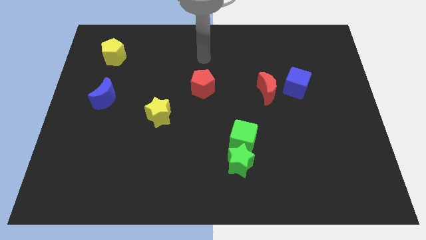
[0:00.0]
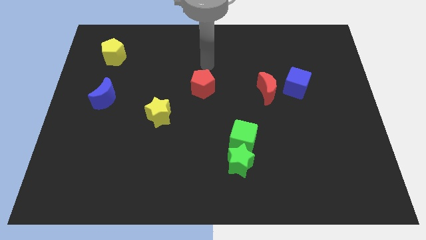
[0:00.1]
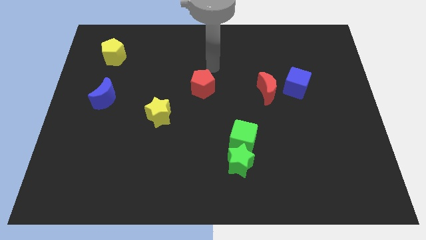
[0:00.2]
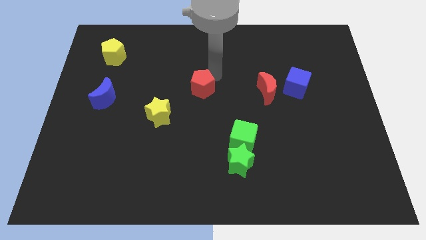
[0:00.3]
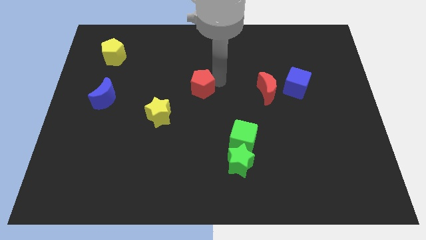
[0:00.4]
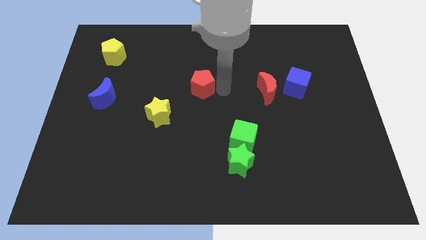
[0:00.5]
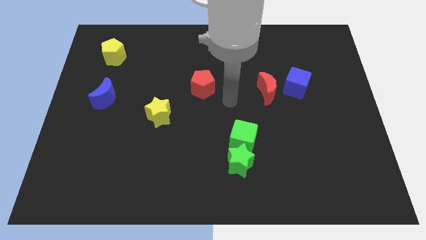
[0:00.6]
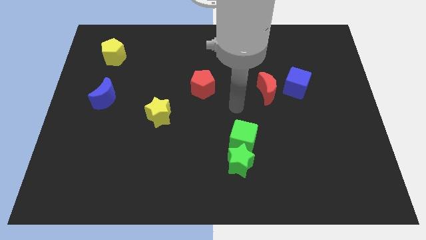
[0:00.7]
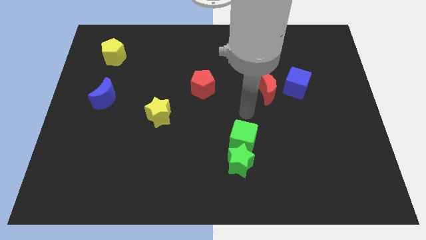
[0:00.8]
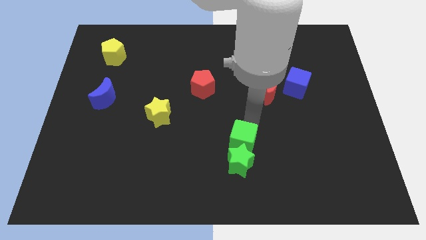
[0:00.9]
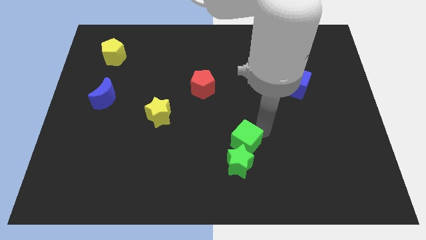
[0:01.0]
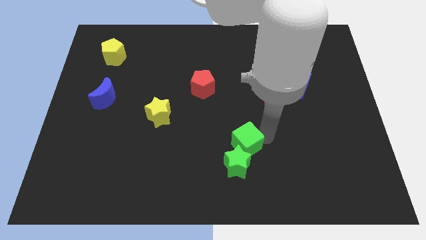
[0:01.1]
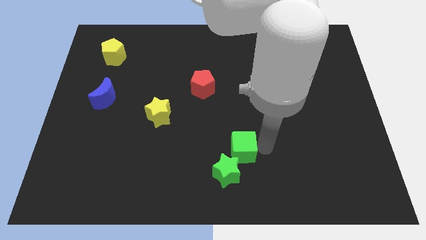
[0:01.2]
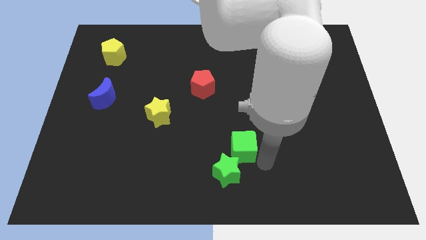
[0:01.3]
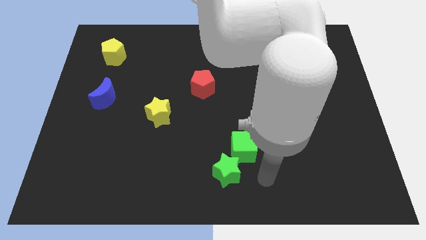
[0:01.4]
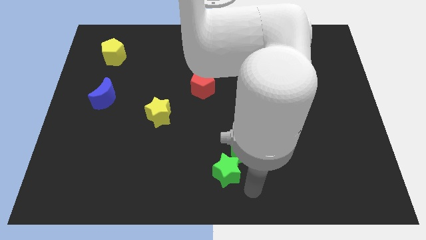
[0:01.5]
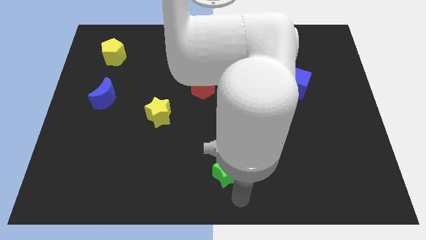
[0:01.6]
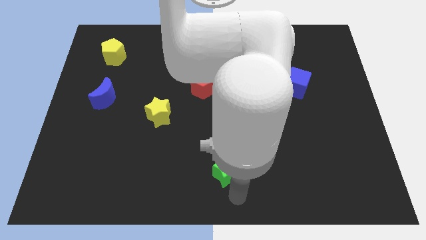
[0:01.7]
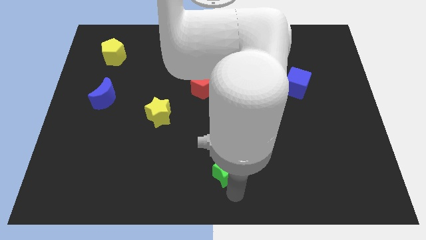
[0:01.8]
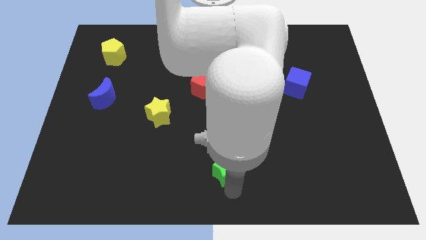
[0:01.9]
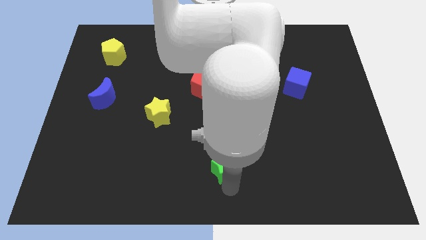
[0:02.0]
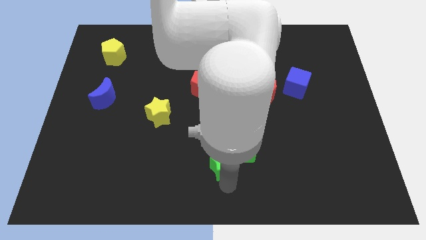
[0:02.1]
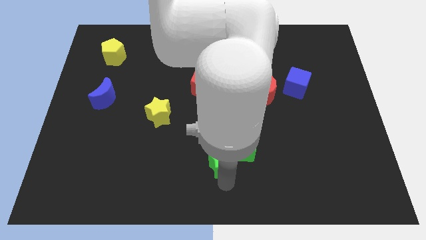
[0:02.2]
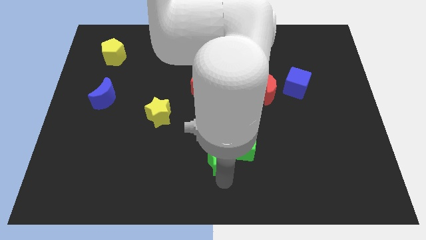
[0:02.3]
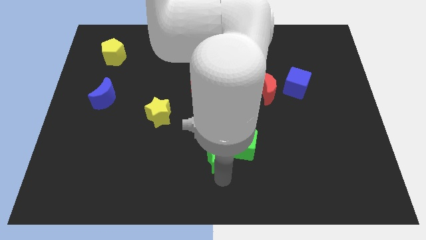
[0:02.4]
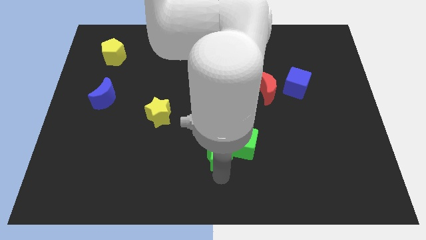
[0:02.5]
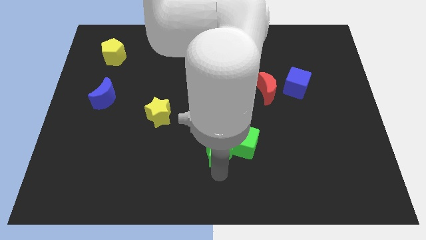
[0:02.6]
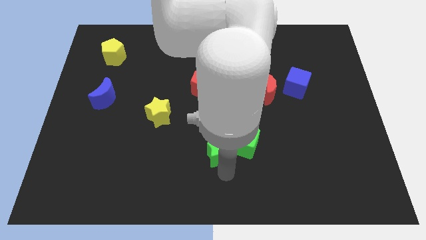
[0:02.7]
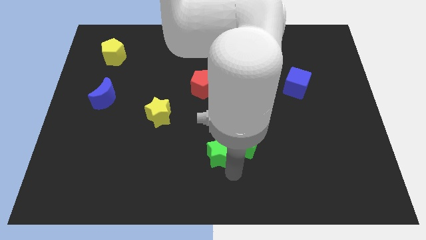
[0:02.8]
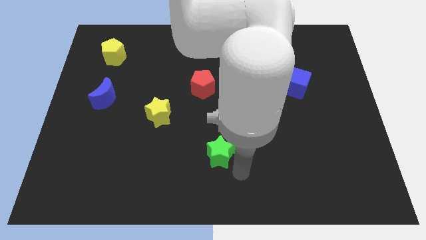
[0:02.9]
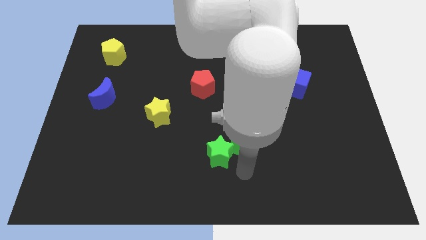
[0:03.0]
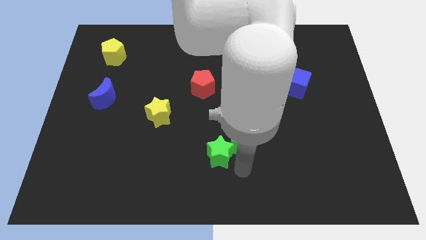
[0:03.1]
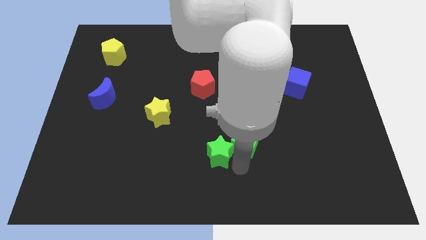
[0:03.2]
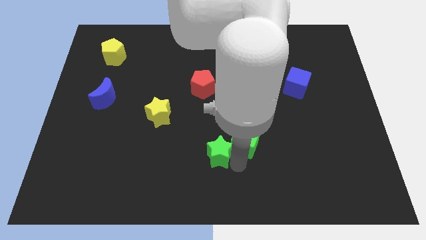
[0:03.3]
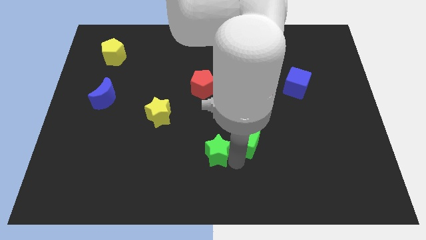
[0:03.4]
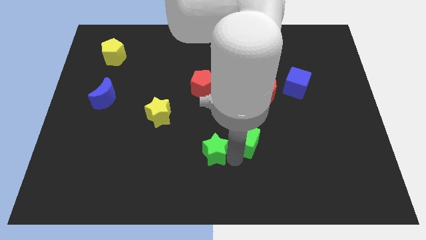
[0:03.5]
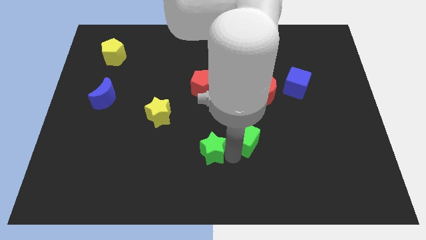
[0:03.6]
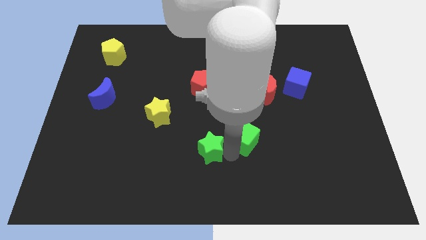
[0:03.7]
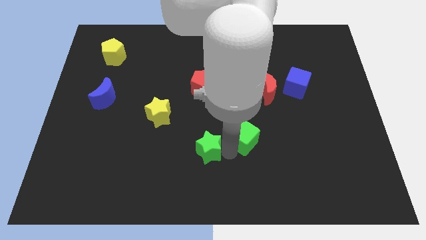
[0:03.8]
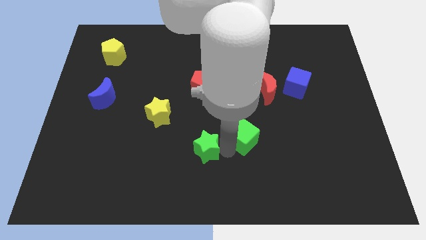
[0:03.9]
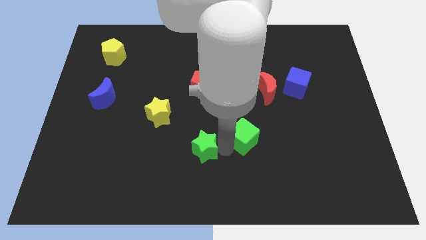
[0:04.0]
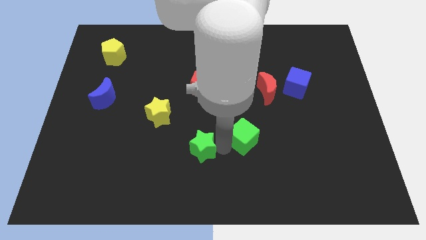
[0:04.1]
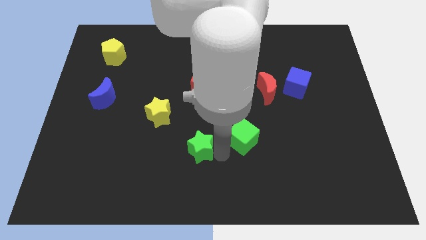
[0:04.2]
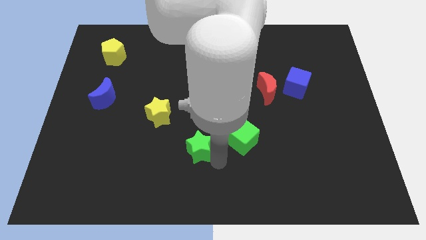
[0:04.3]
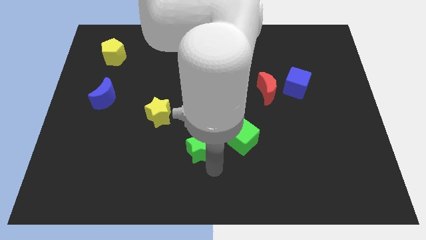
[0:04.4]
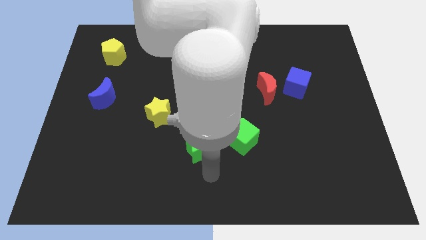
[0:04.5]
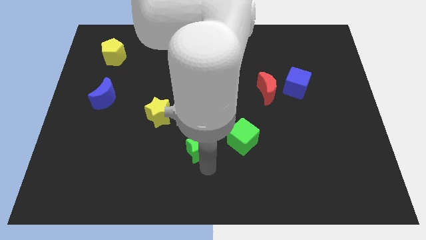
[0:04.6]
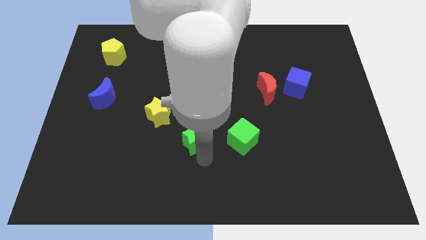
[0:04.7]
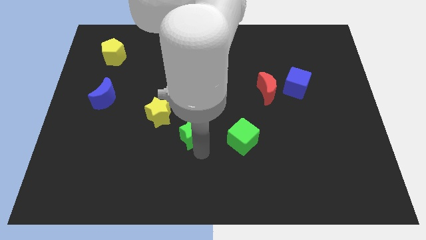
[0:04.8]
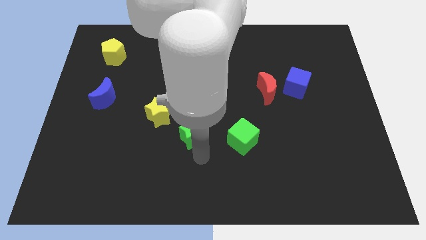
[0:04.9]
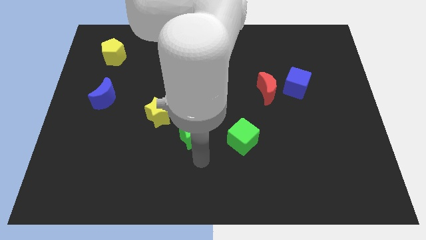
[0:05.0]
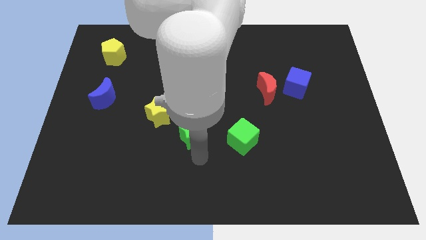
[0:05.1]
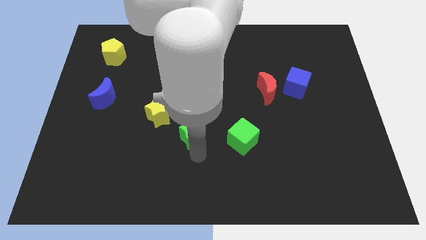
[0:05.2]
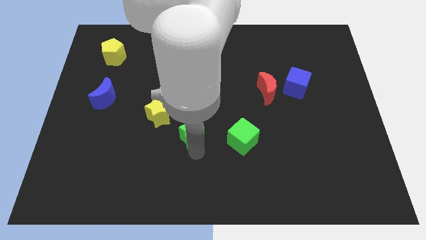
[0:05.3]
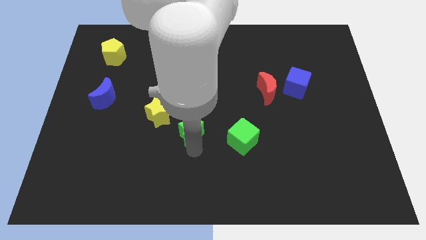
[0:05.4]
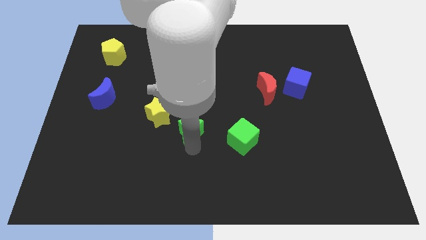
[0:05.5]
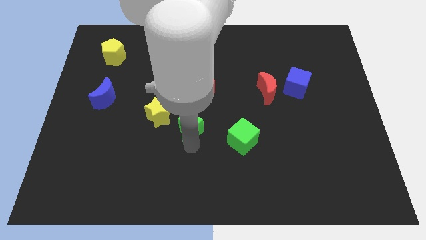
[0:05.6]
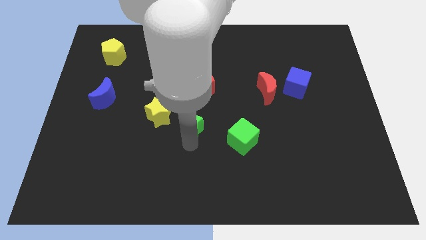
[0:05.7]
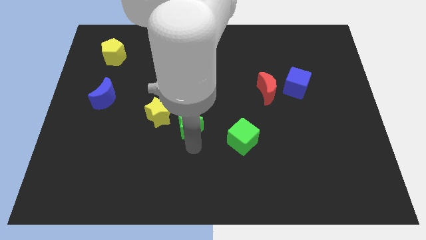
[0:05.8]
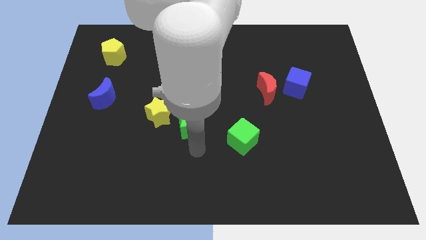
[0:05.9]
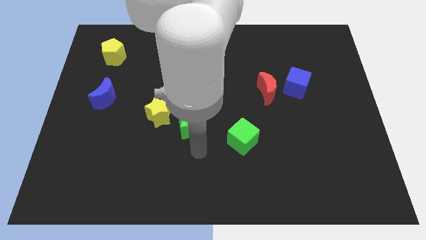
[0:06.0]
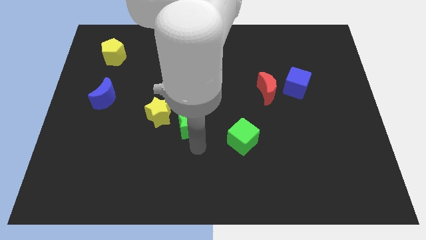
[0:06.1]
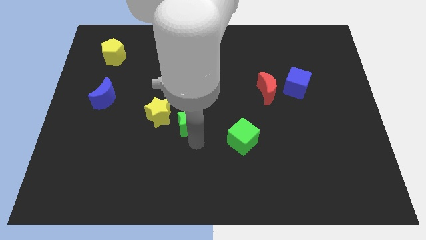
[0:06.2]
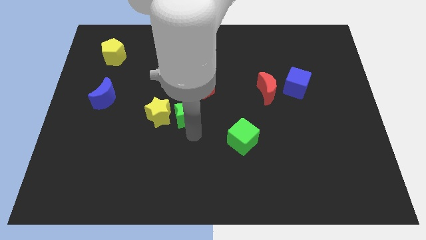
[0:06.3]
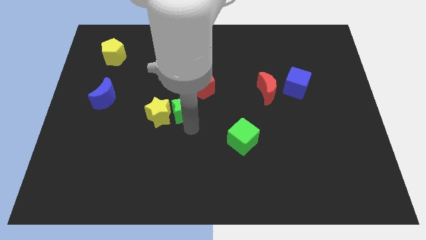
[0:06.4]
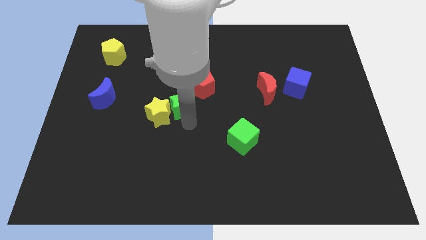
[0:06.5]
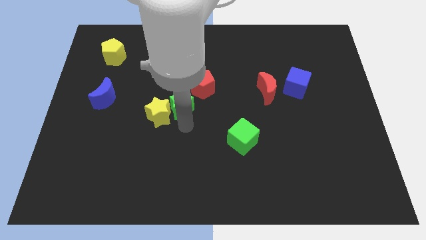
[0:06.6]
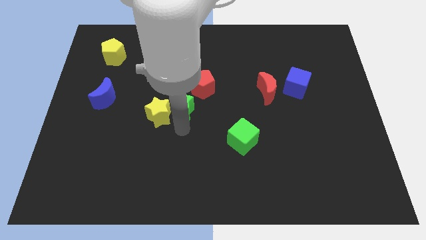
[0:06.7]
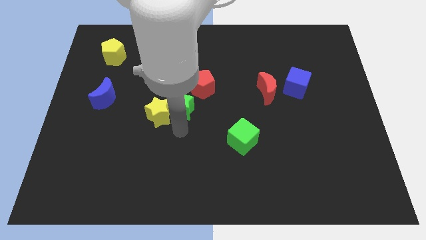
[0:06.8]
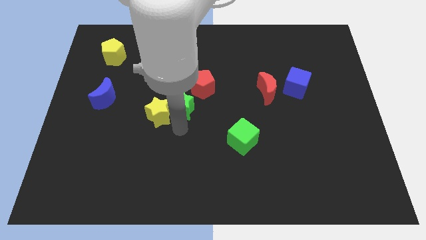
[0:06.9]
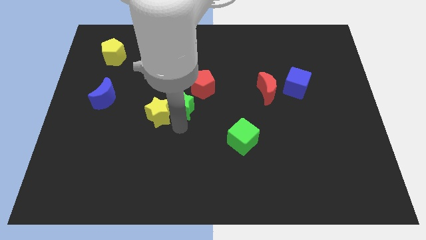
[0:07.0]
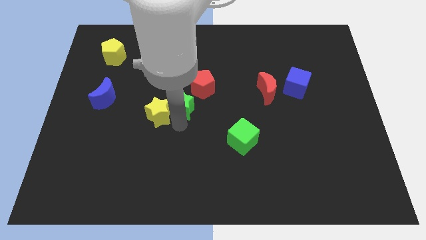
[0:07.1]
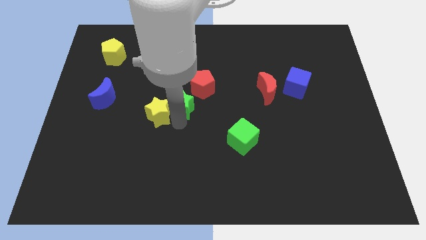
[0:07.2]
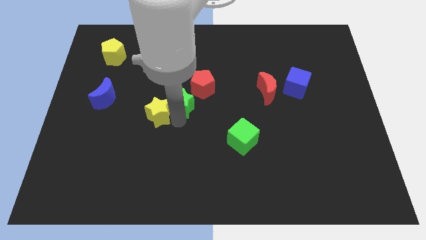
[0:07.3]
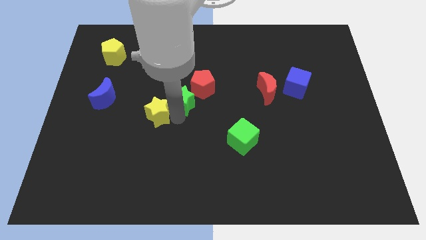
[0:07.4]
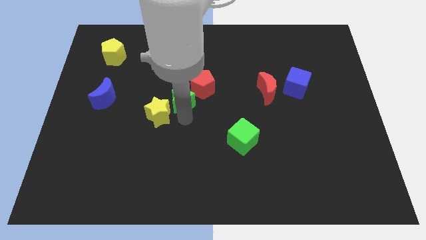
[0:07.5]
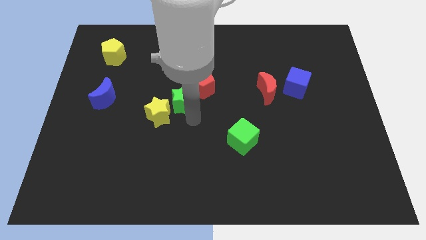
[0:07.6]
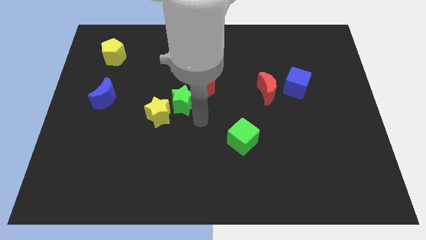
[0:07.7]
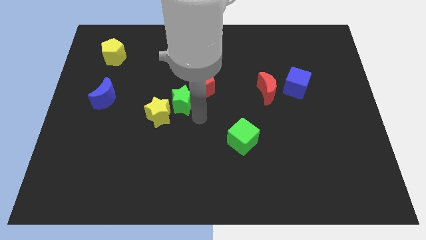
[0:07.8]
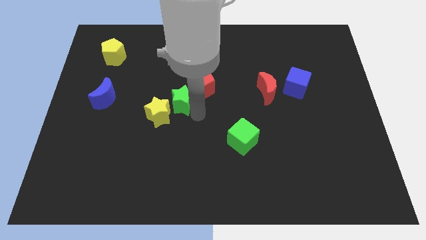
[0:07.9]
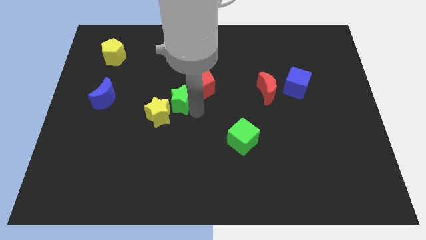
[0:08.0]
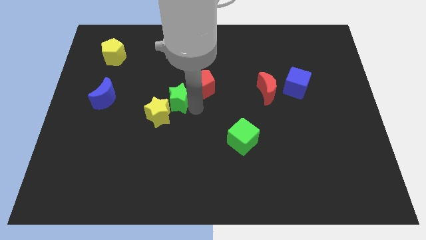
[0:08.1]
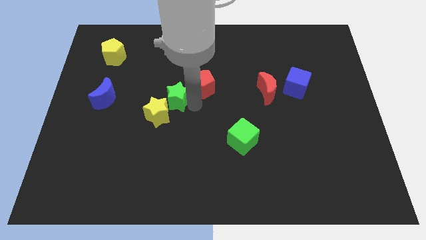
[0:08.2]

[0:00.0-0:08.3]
move the green star to the top side of the yellow star
